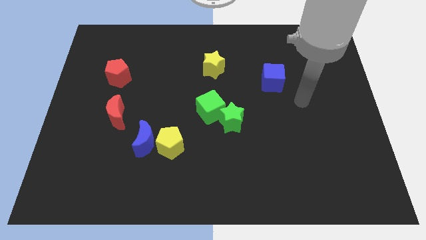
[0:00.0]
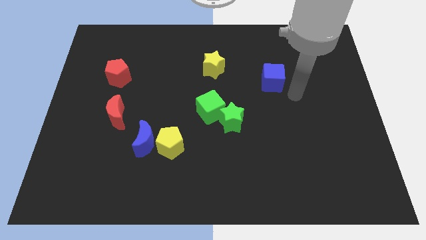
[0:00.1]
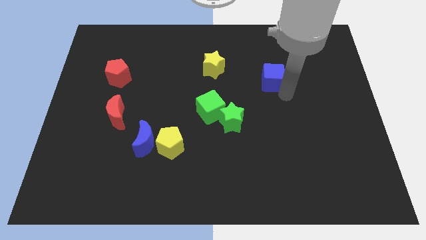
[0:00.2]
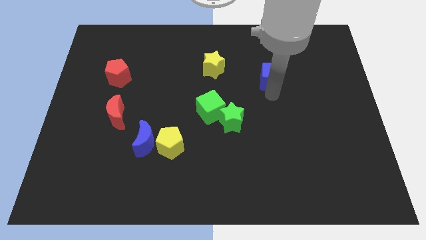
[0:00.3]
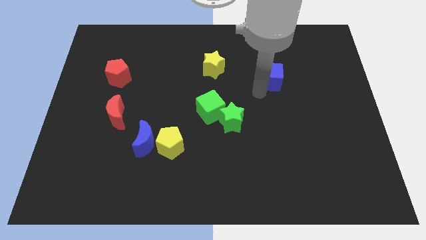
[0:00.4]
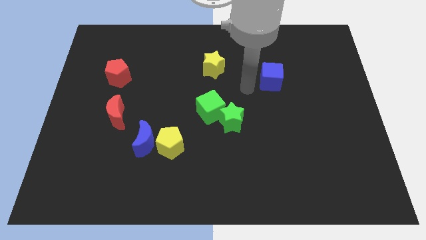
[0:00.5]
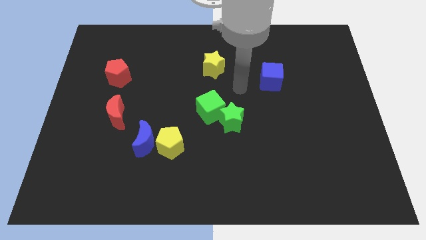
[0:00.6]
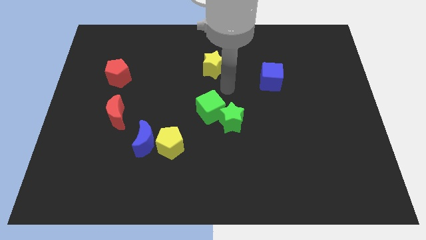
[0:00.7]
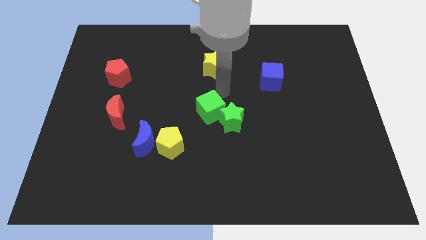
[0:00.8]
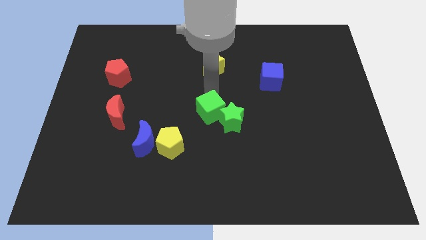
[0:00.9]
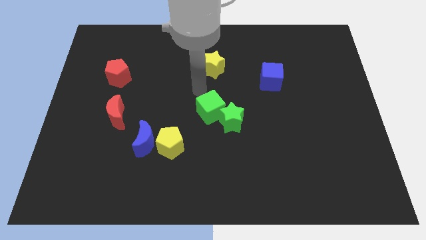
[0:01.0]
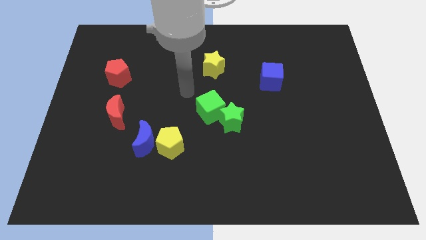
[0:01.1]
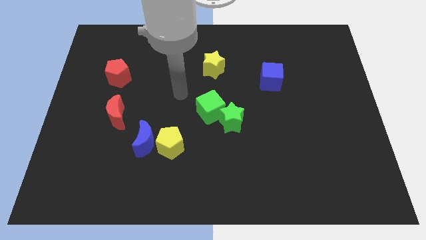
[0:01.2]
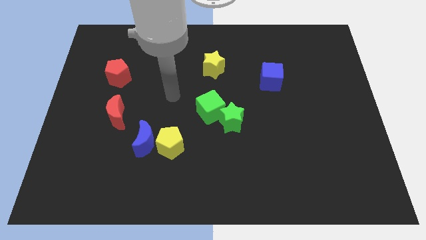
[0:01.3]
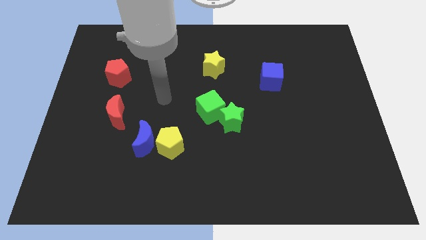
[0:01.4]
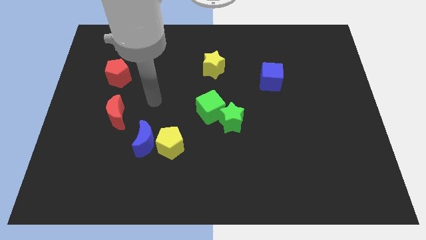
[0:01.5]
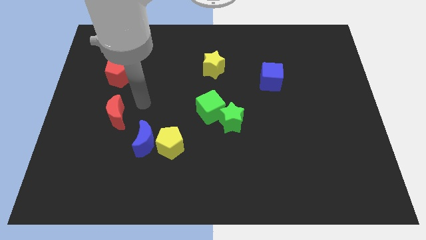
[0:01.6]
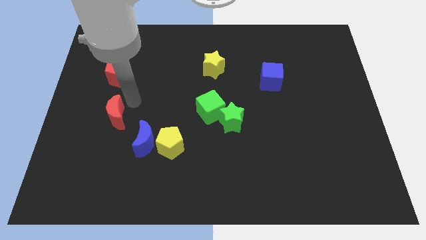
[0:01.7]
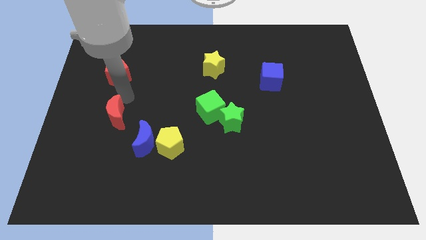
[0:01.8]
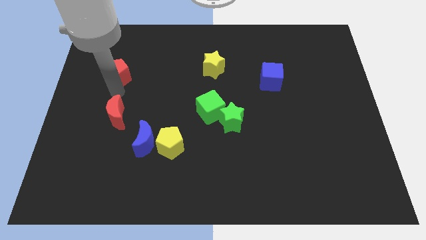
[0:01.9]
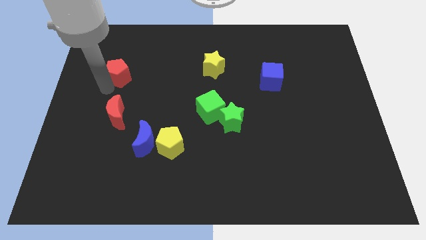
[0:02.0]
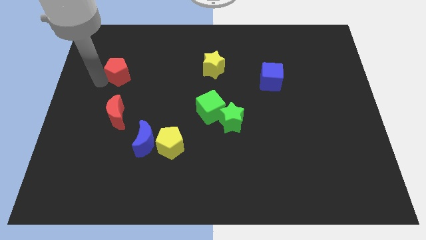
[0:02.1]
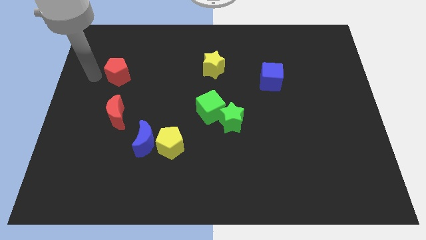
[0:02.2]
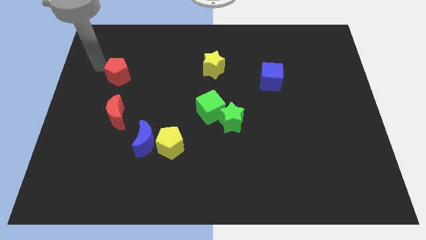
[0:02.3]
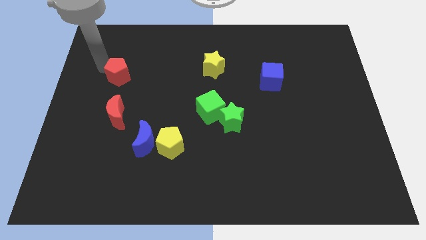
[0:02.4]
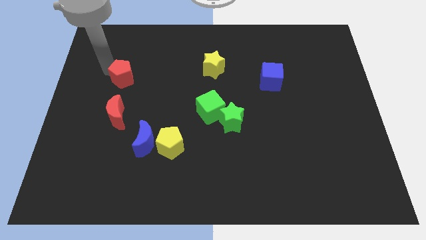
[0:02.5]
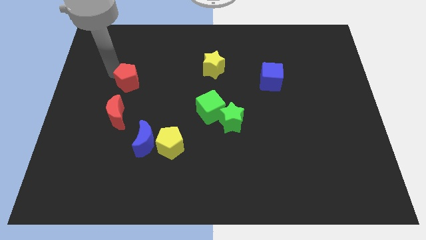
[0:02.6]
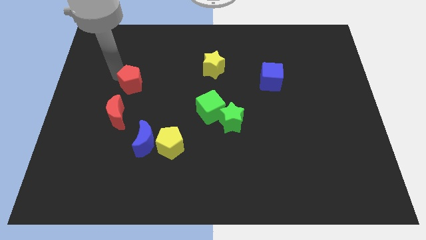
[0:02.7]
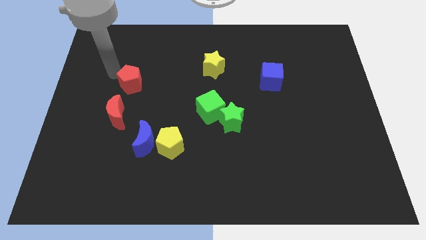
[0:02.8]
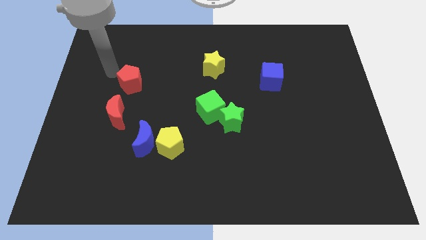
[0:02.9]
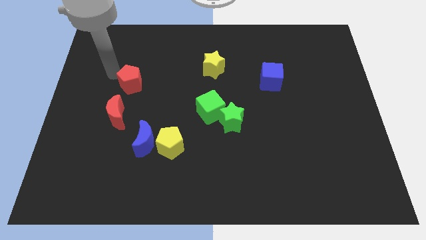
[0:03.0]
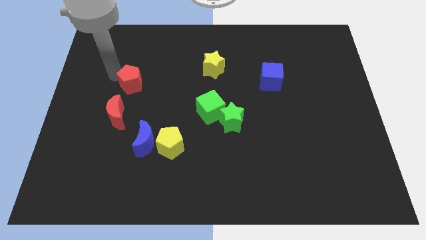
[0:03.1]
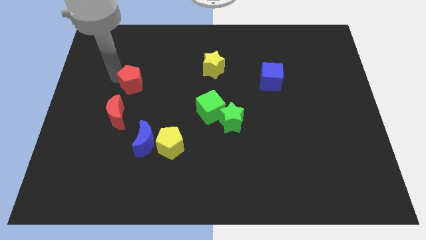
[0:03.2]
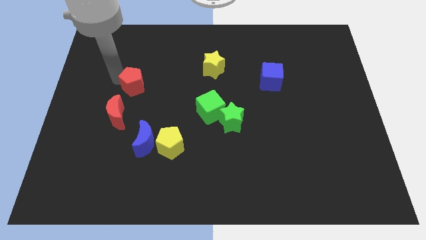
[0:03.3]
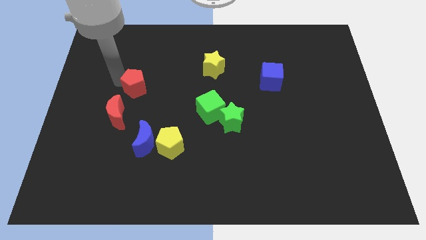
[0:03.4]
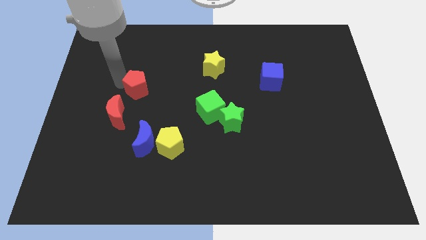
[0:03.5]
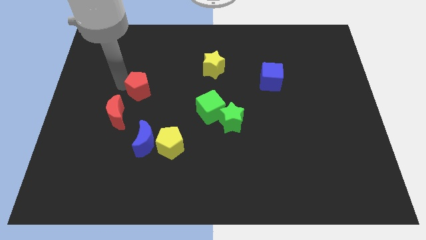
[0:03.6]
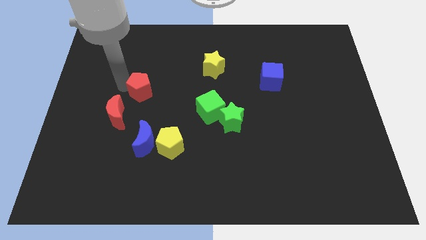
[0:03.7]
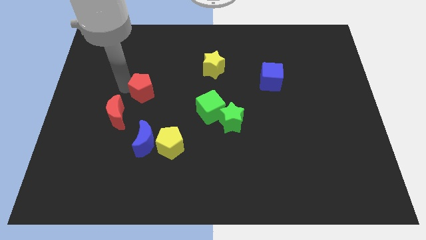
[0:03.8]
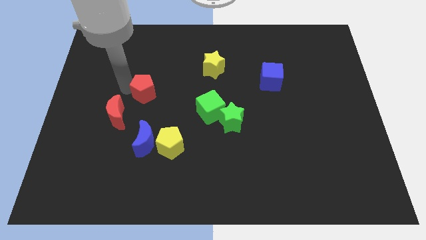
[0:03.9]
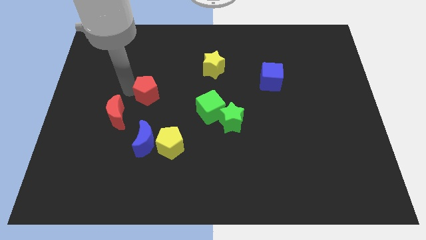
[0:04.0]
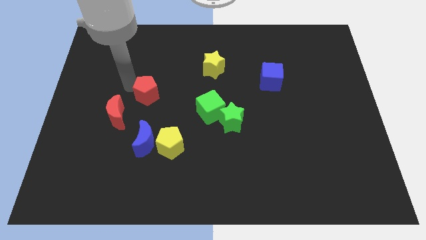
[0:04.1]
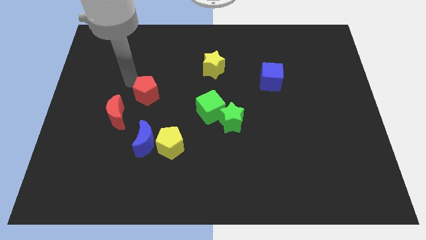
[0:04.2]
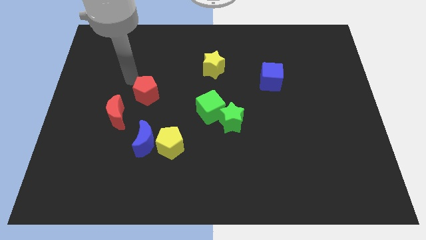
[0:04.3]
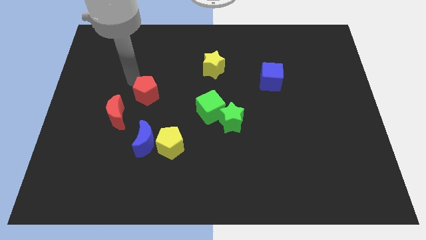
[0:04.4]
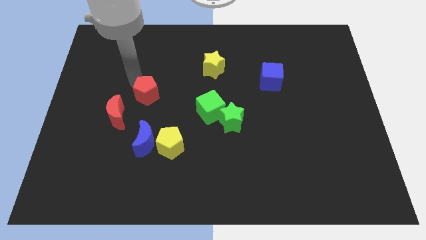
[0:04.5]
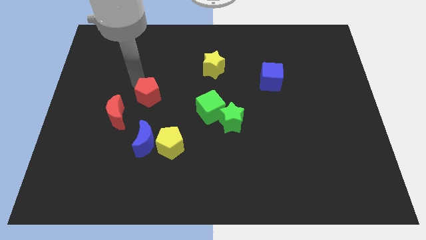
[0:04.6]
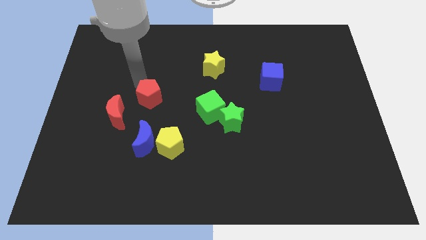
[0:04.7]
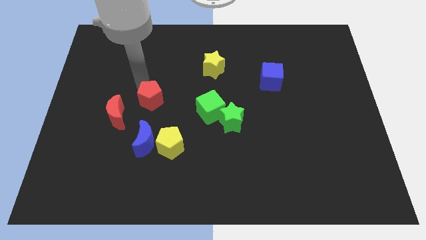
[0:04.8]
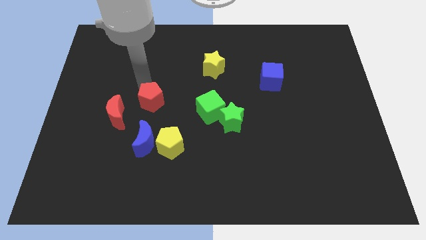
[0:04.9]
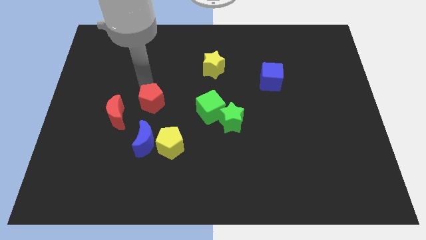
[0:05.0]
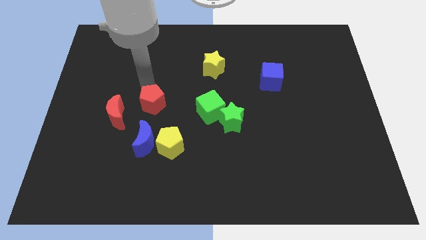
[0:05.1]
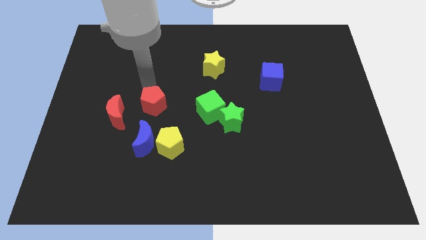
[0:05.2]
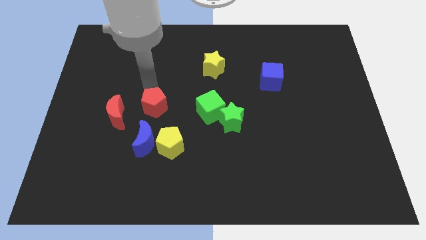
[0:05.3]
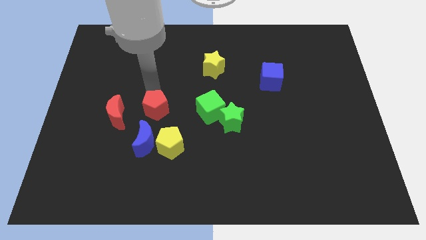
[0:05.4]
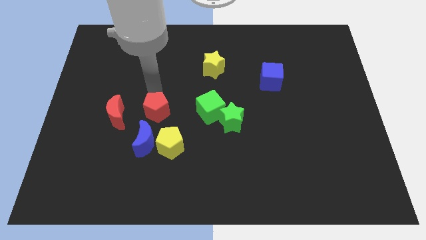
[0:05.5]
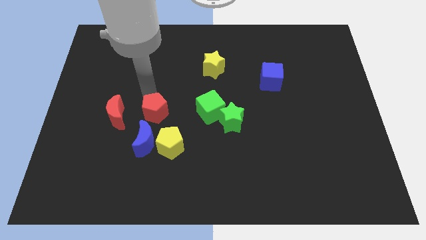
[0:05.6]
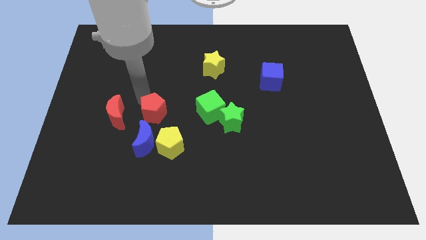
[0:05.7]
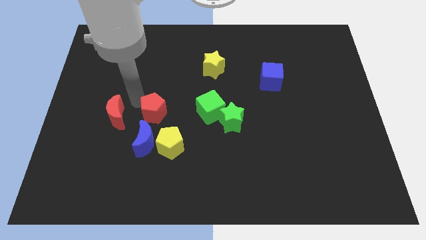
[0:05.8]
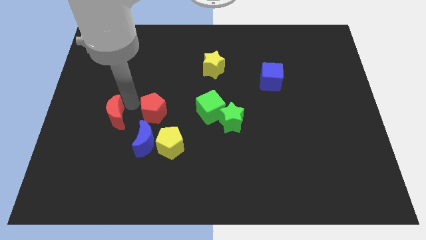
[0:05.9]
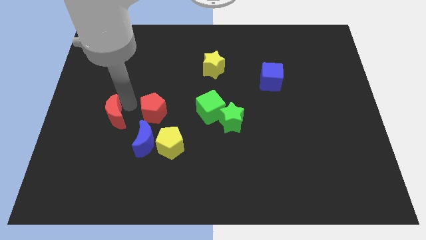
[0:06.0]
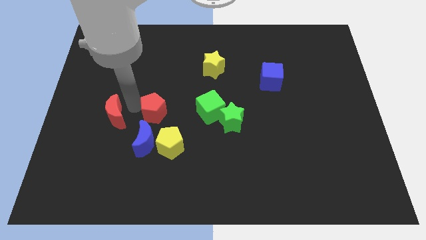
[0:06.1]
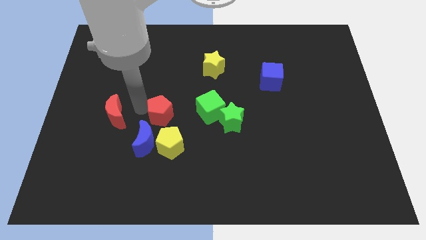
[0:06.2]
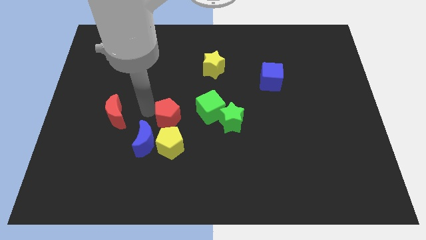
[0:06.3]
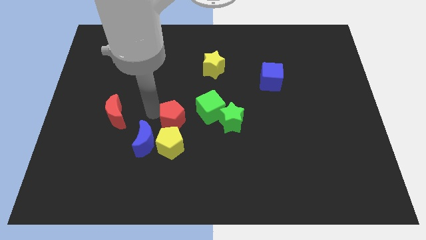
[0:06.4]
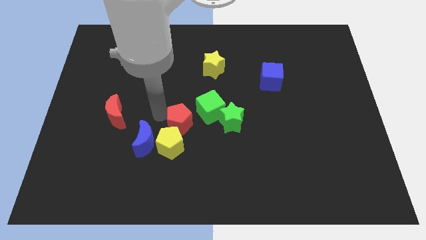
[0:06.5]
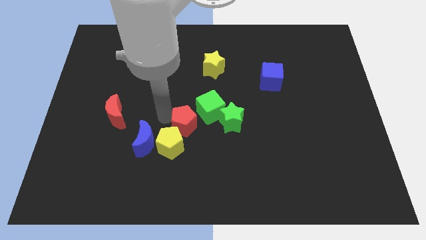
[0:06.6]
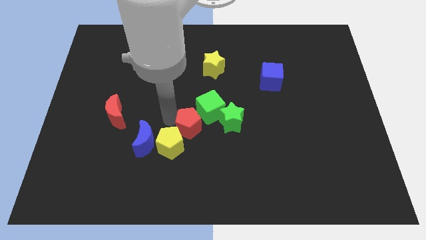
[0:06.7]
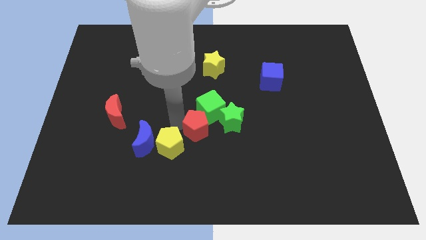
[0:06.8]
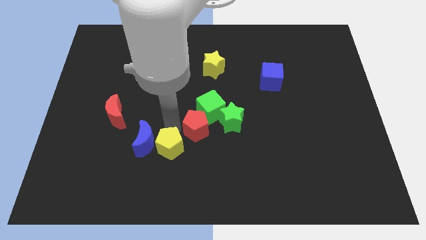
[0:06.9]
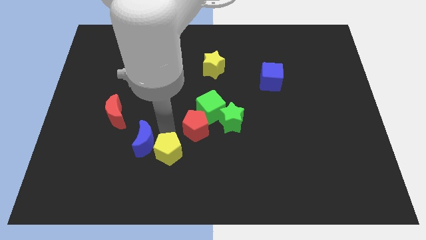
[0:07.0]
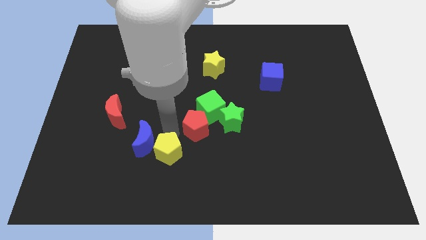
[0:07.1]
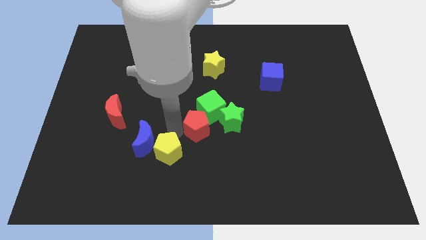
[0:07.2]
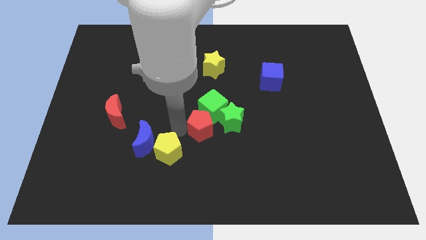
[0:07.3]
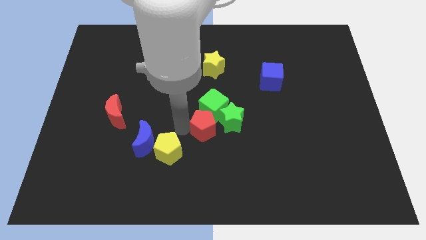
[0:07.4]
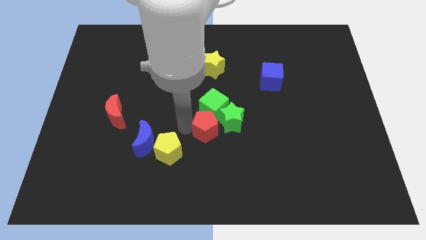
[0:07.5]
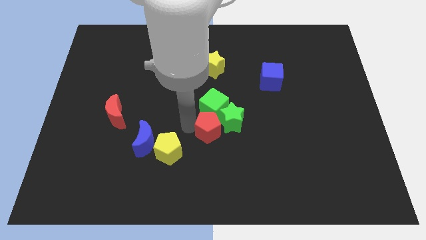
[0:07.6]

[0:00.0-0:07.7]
move the red pentagon towards the green star
